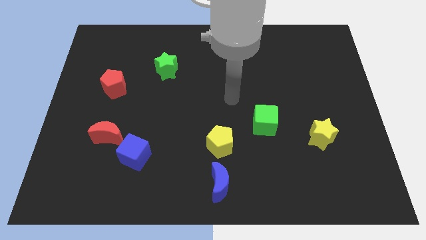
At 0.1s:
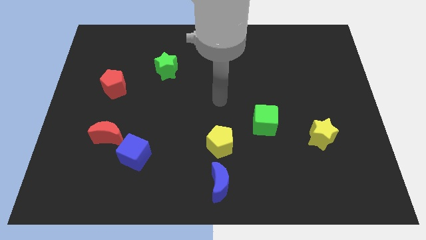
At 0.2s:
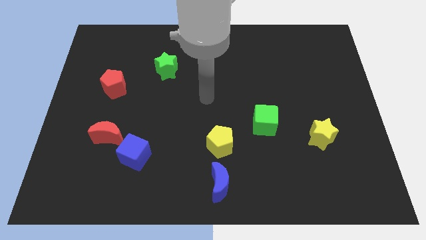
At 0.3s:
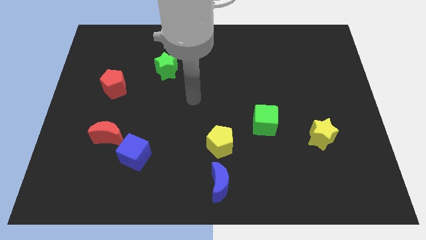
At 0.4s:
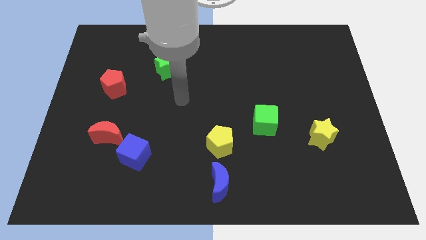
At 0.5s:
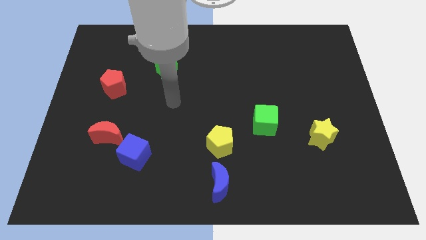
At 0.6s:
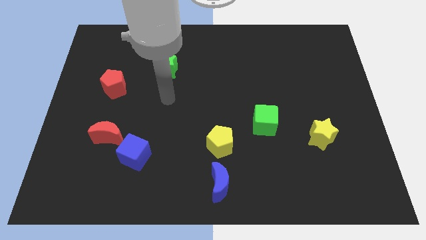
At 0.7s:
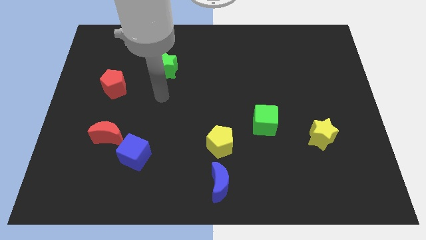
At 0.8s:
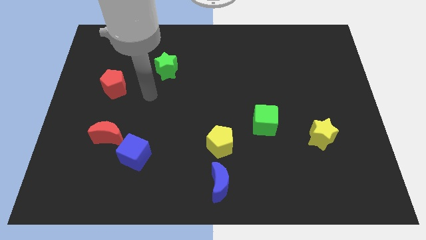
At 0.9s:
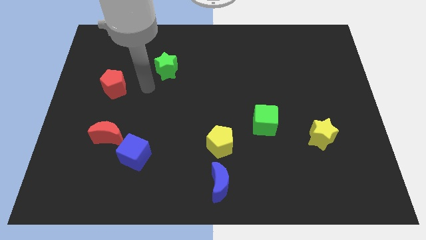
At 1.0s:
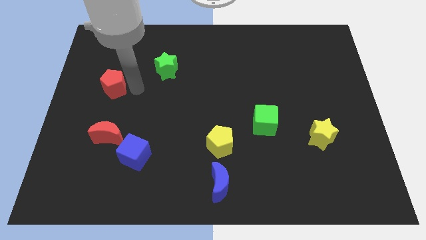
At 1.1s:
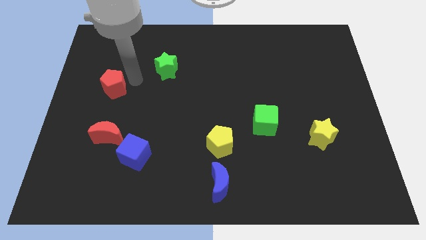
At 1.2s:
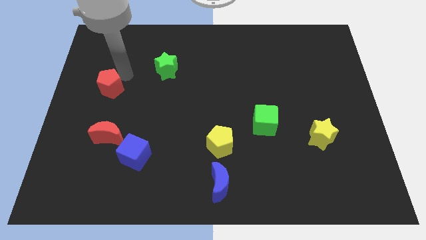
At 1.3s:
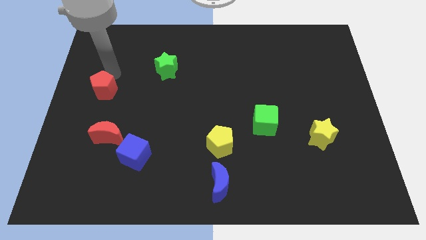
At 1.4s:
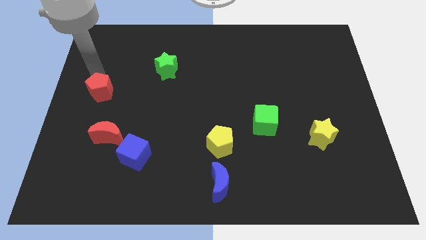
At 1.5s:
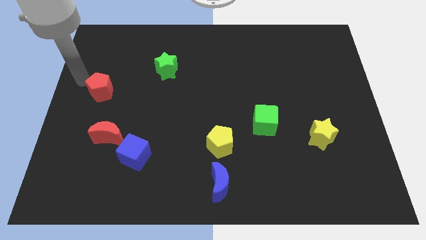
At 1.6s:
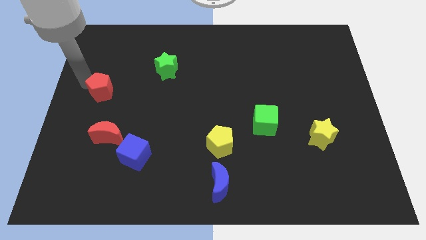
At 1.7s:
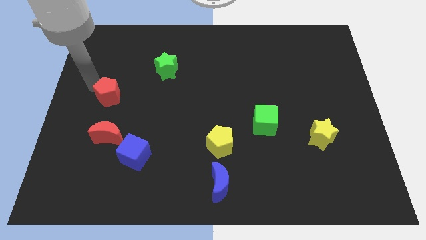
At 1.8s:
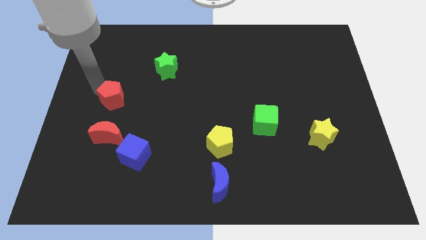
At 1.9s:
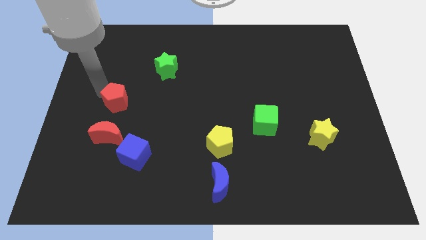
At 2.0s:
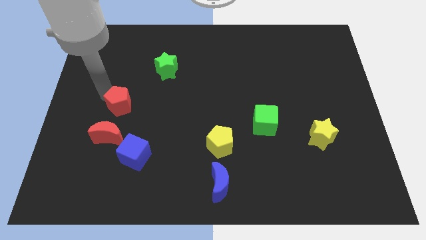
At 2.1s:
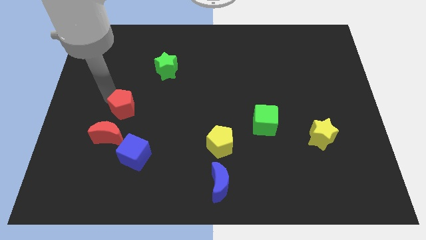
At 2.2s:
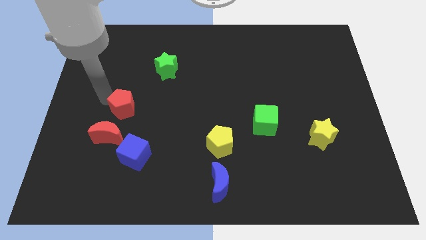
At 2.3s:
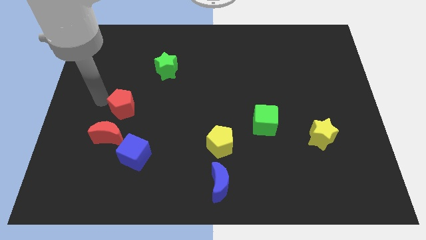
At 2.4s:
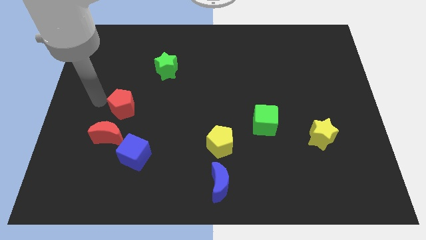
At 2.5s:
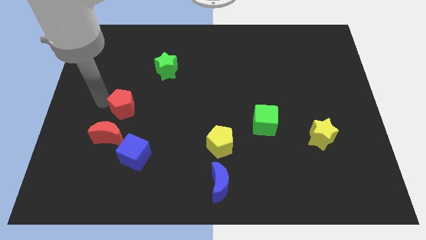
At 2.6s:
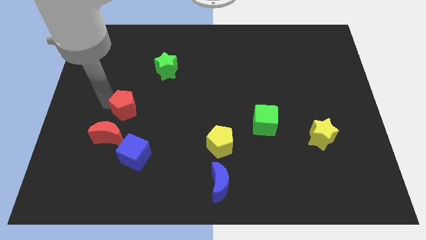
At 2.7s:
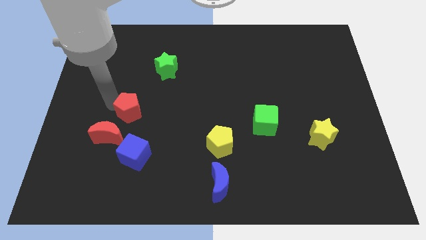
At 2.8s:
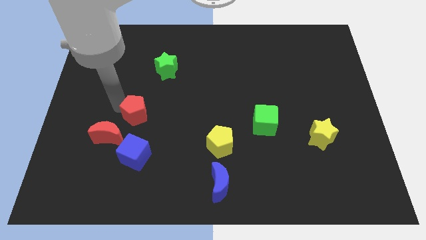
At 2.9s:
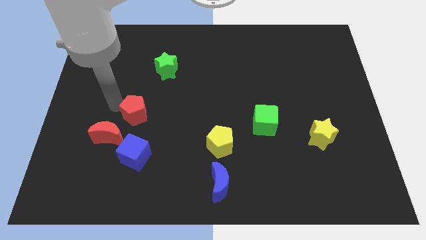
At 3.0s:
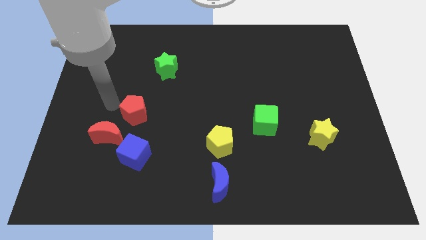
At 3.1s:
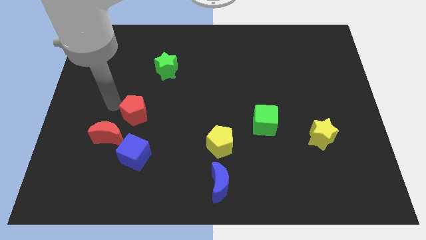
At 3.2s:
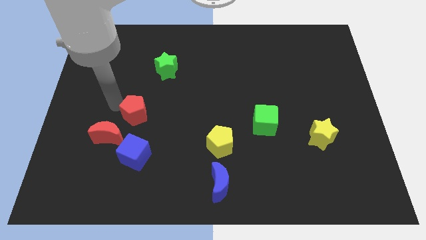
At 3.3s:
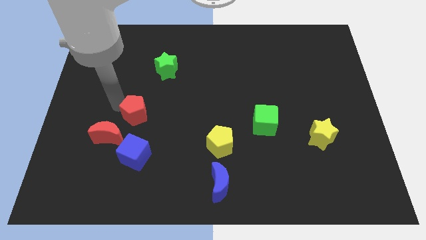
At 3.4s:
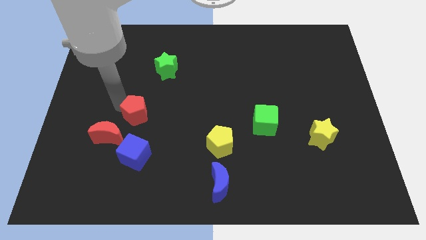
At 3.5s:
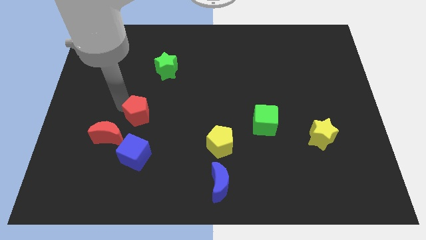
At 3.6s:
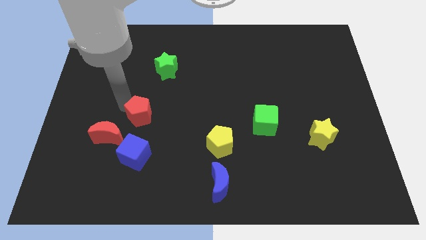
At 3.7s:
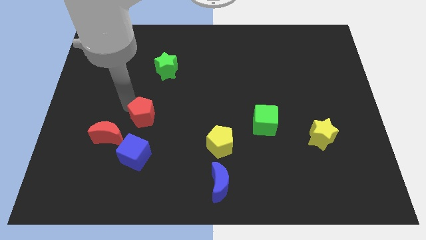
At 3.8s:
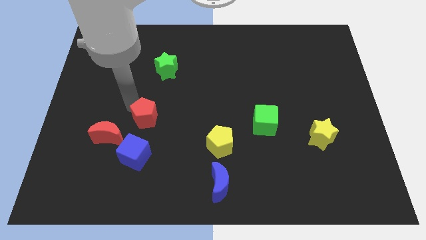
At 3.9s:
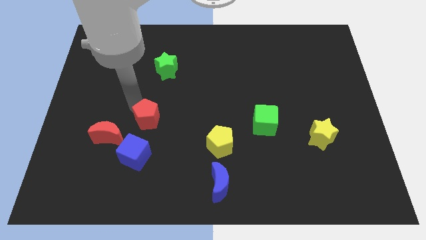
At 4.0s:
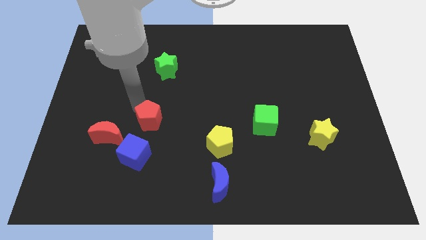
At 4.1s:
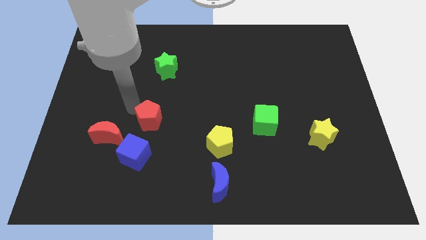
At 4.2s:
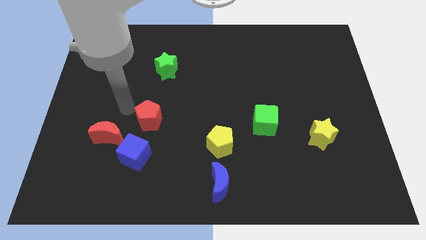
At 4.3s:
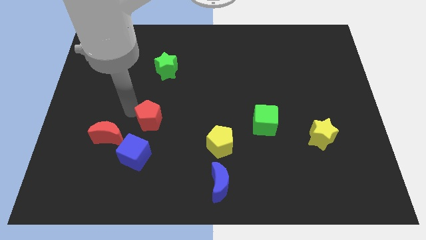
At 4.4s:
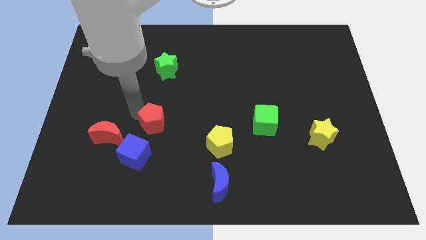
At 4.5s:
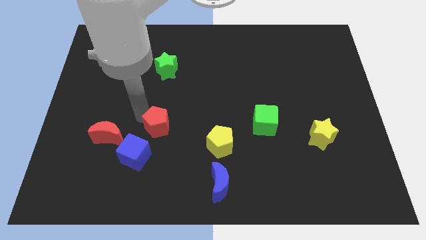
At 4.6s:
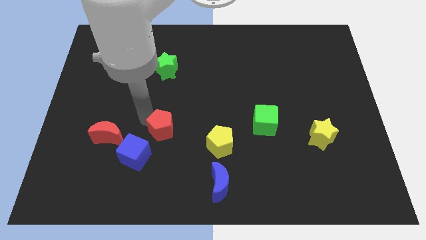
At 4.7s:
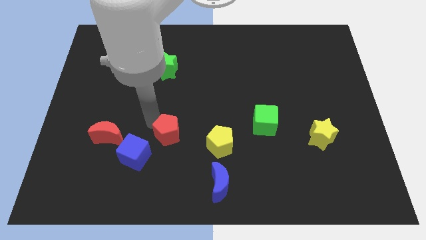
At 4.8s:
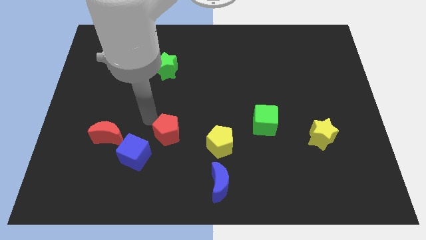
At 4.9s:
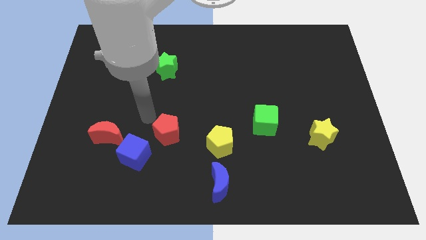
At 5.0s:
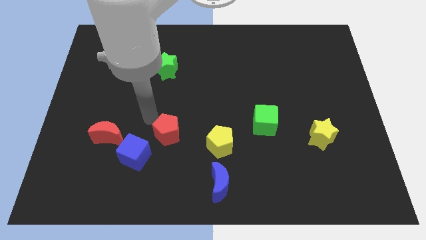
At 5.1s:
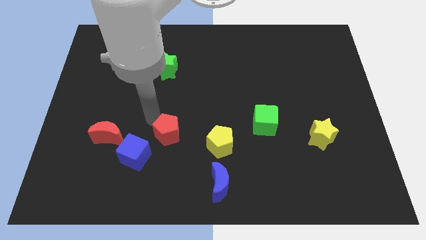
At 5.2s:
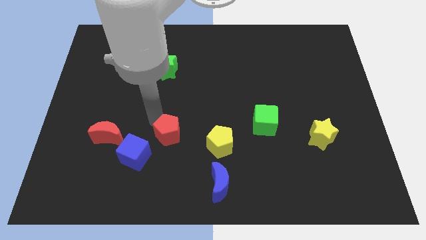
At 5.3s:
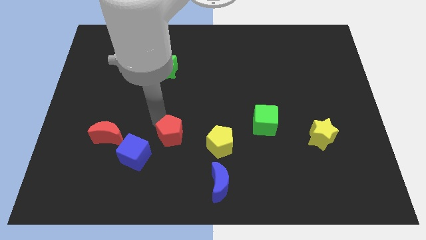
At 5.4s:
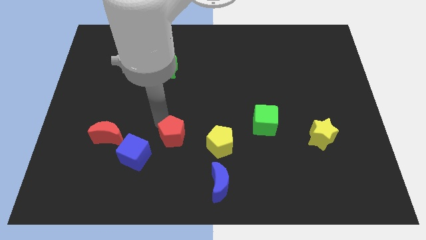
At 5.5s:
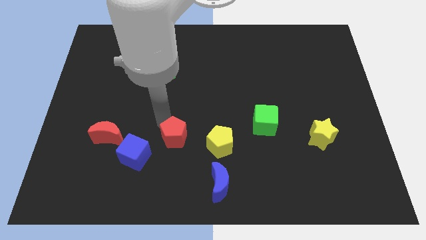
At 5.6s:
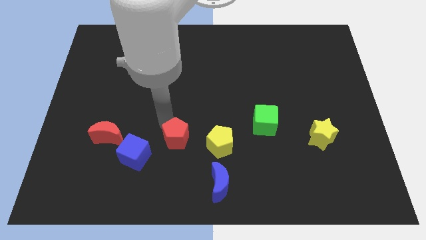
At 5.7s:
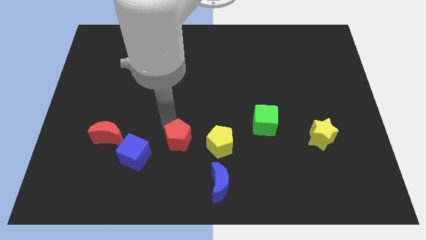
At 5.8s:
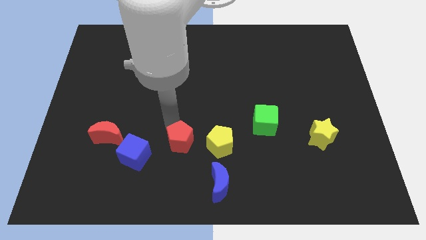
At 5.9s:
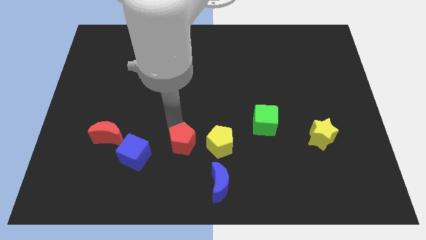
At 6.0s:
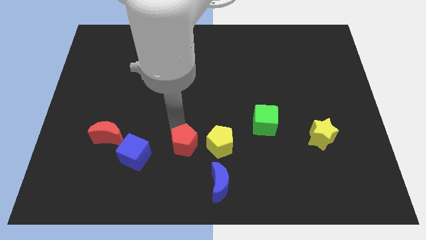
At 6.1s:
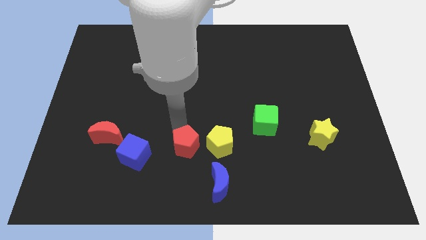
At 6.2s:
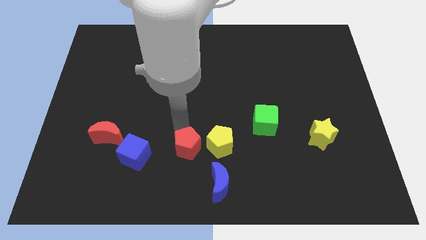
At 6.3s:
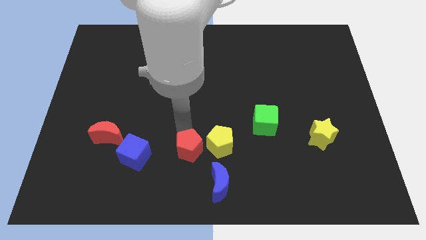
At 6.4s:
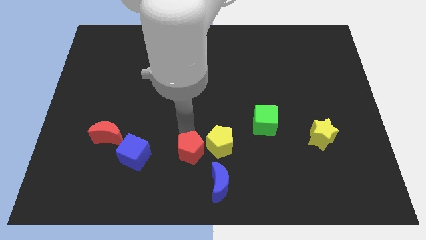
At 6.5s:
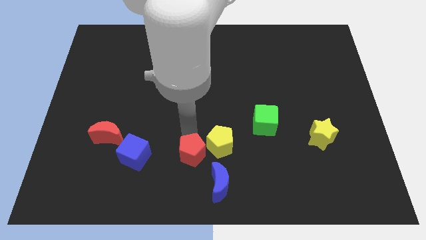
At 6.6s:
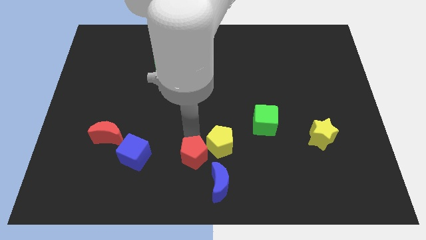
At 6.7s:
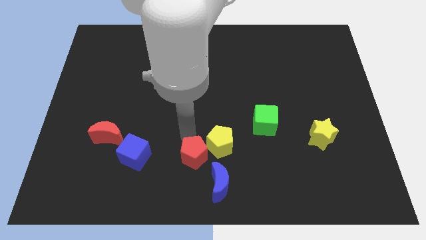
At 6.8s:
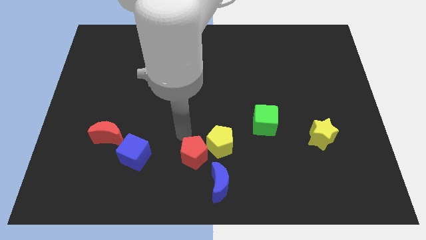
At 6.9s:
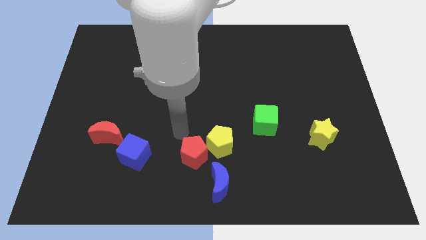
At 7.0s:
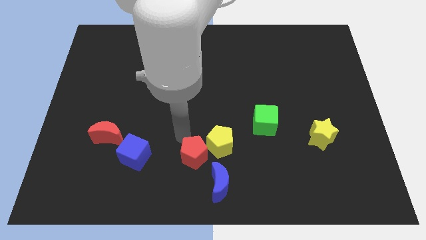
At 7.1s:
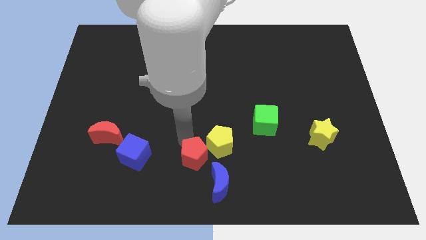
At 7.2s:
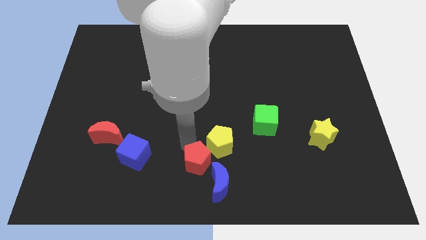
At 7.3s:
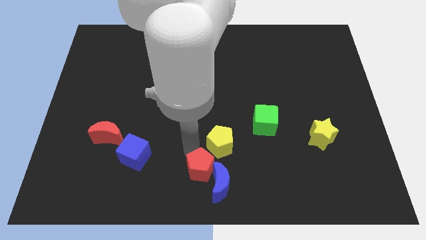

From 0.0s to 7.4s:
push the red pentagon to the blue moon
